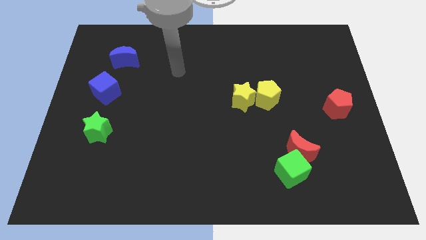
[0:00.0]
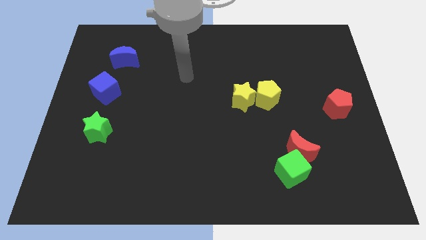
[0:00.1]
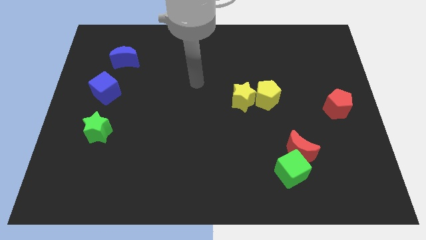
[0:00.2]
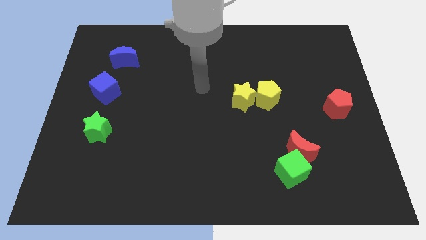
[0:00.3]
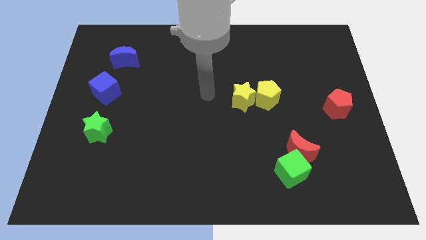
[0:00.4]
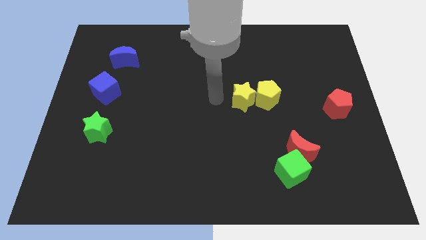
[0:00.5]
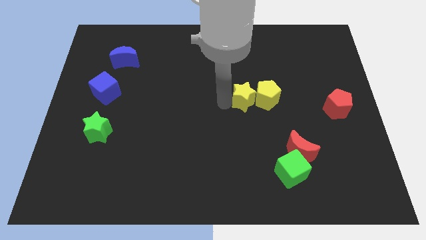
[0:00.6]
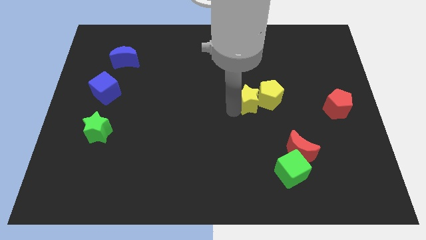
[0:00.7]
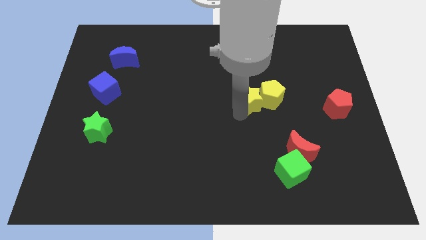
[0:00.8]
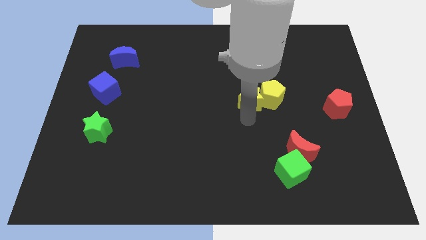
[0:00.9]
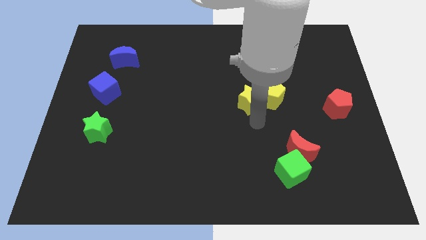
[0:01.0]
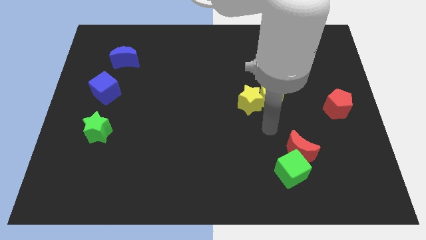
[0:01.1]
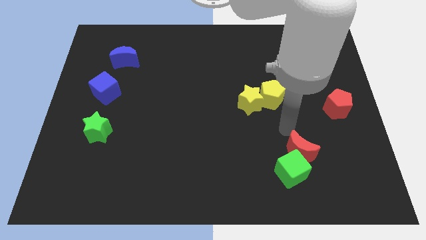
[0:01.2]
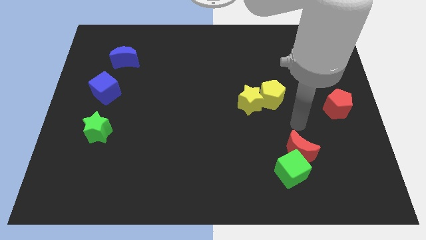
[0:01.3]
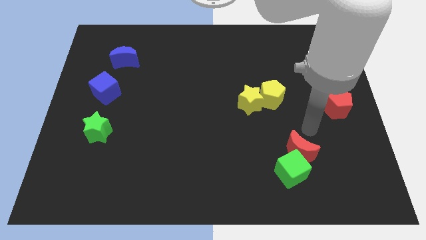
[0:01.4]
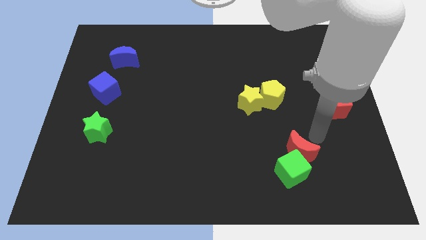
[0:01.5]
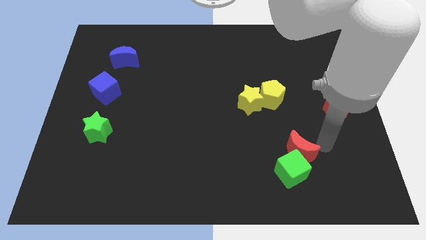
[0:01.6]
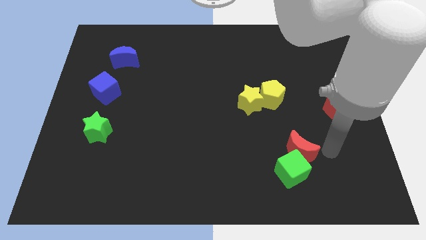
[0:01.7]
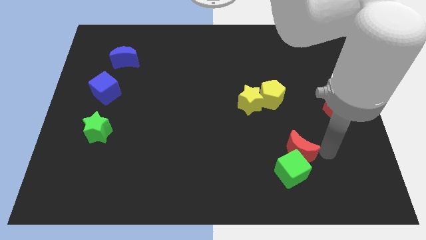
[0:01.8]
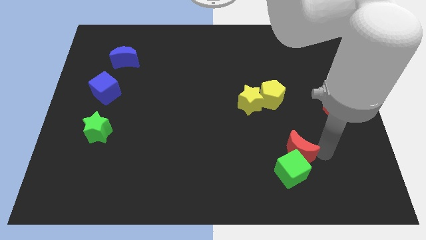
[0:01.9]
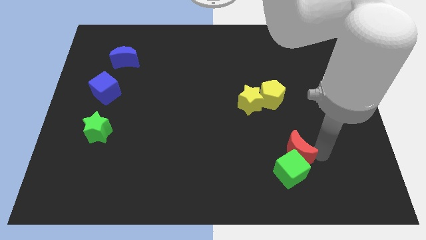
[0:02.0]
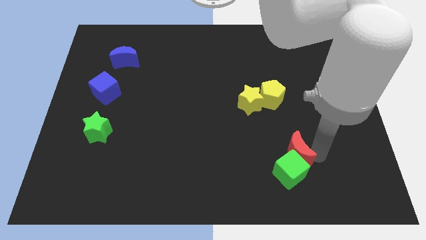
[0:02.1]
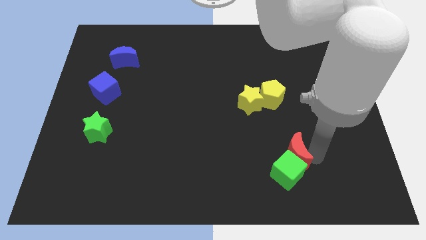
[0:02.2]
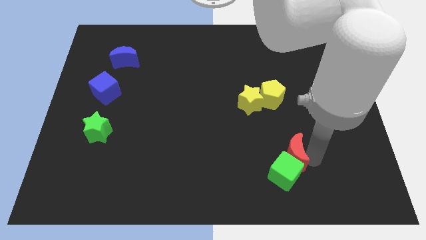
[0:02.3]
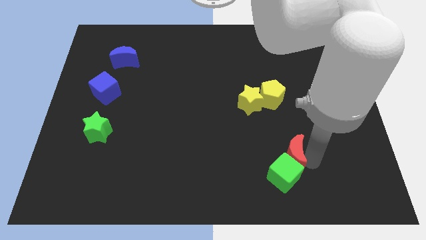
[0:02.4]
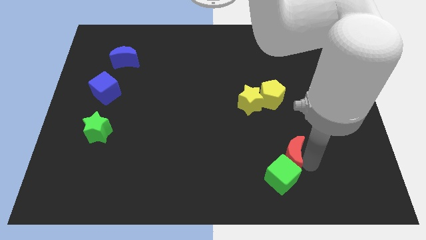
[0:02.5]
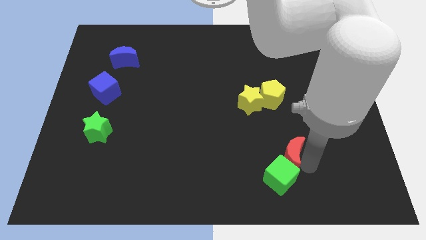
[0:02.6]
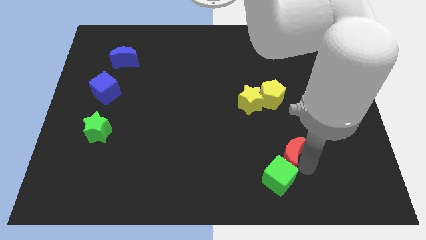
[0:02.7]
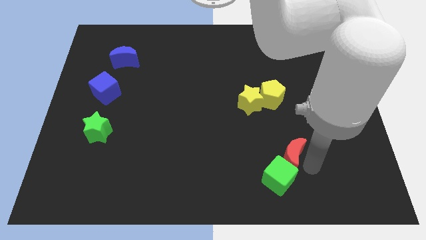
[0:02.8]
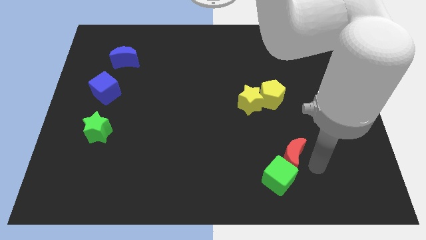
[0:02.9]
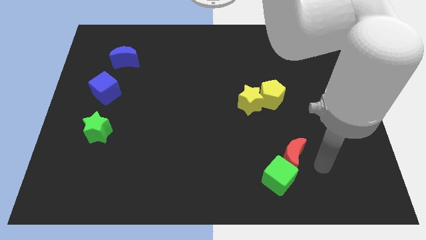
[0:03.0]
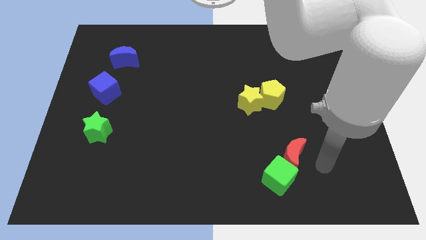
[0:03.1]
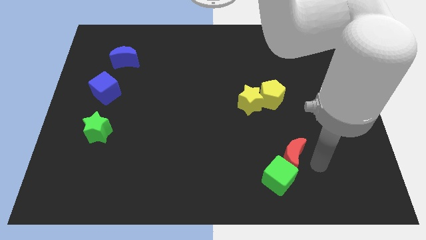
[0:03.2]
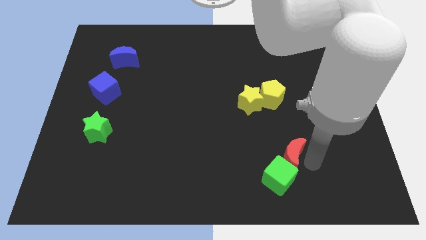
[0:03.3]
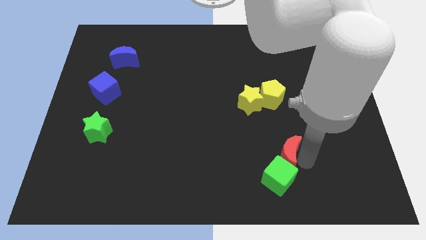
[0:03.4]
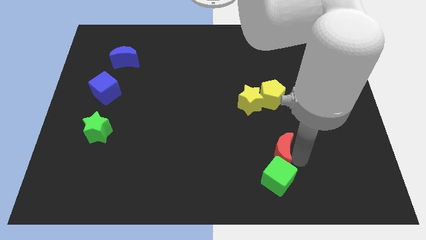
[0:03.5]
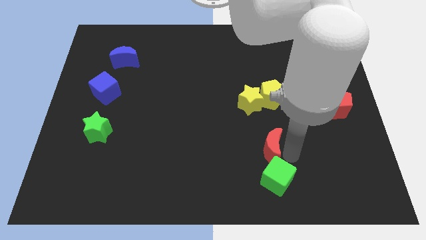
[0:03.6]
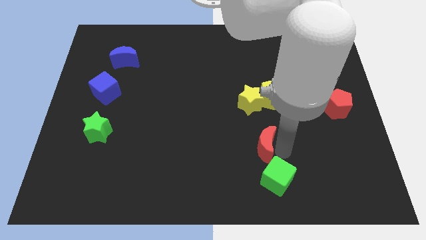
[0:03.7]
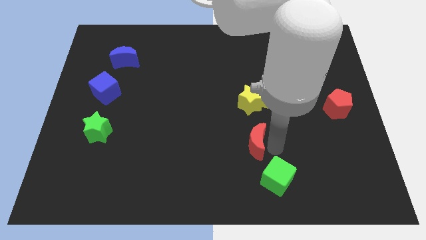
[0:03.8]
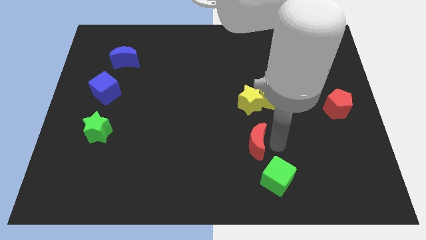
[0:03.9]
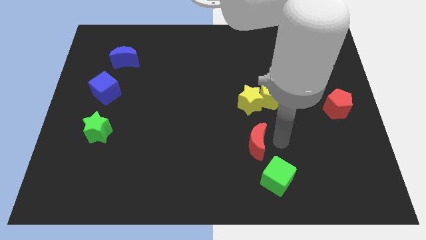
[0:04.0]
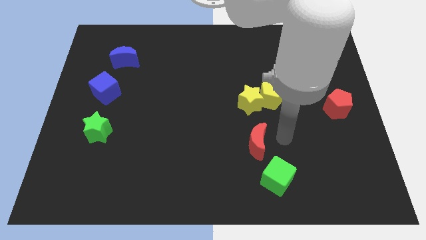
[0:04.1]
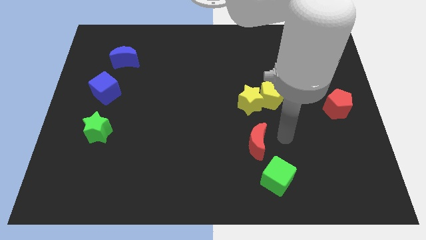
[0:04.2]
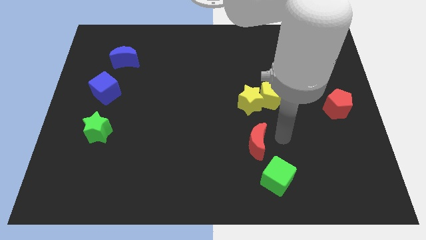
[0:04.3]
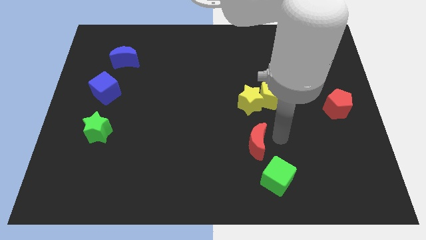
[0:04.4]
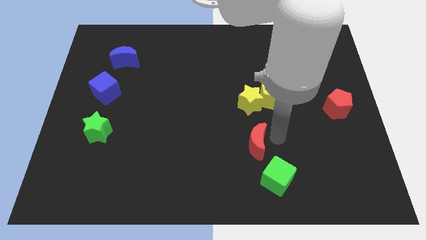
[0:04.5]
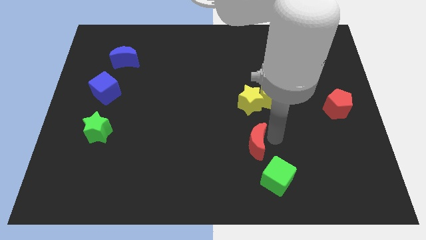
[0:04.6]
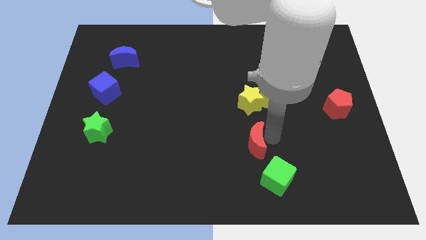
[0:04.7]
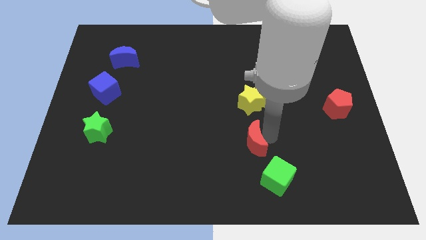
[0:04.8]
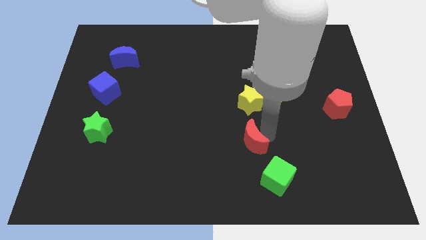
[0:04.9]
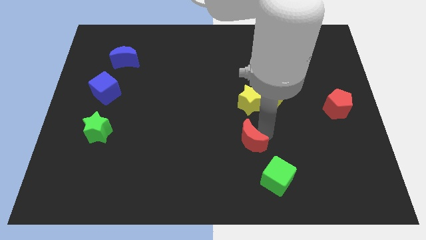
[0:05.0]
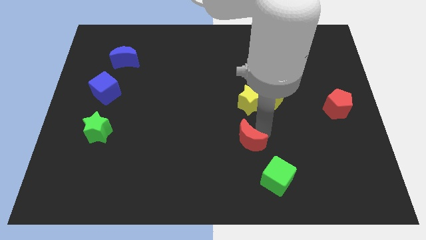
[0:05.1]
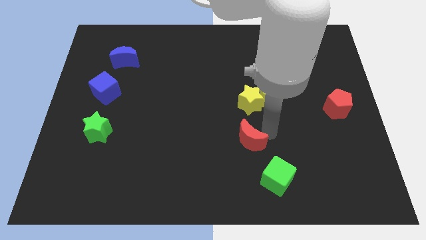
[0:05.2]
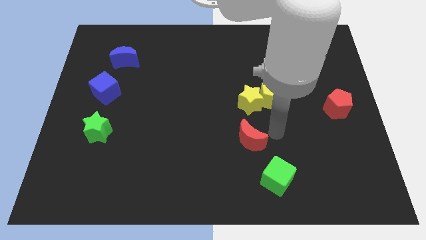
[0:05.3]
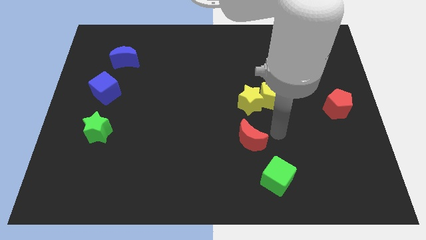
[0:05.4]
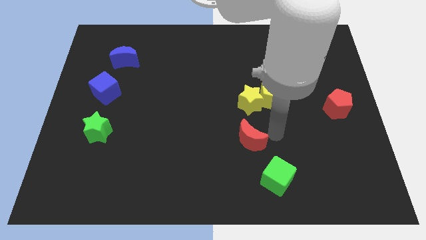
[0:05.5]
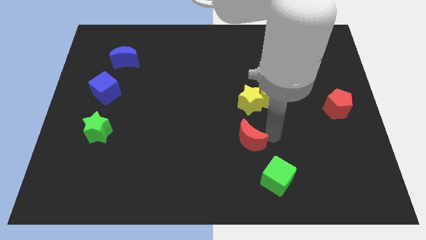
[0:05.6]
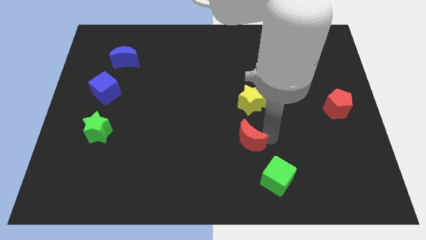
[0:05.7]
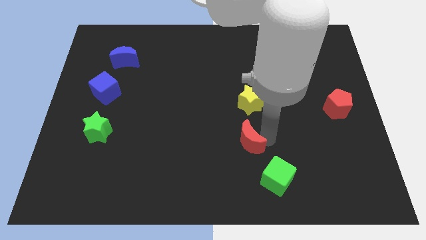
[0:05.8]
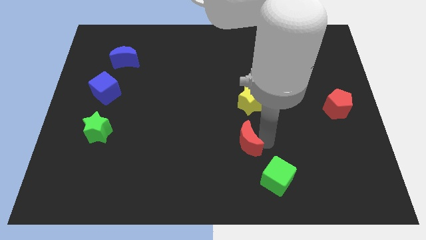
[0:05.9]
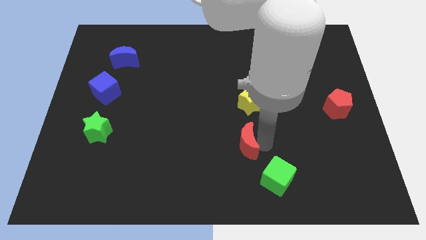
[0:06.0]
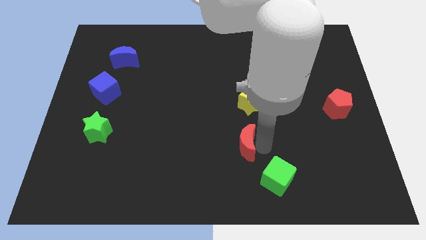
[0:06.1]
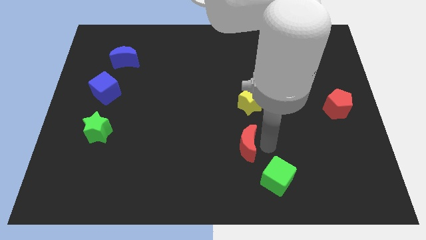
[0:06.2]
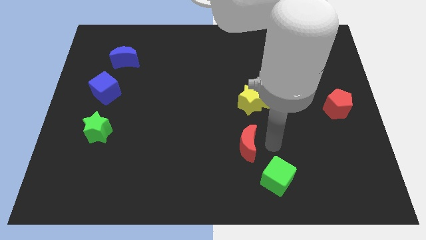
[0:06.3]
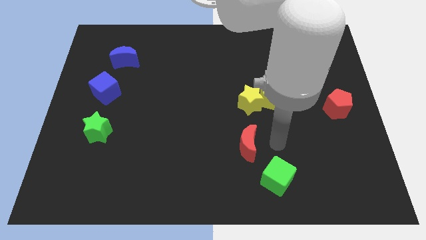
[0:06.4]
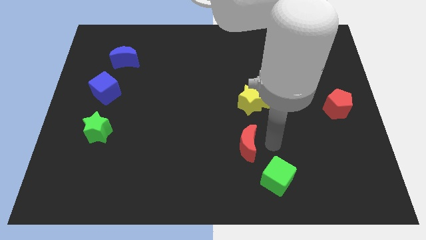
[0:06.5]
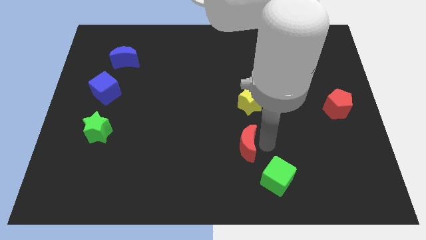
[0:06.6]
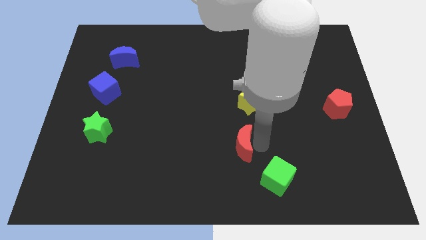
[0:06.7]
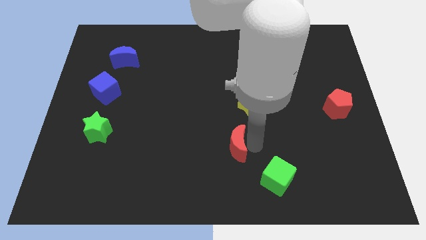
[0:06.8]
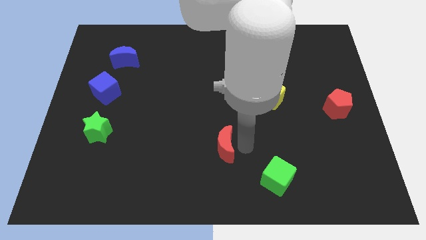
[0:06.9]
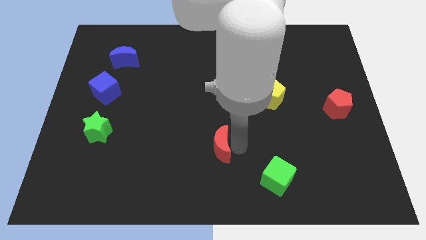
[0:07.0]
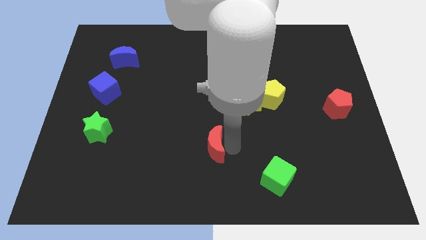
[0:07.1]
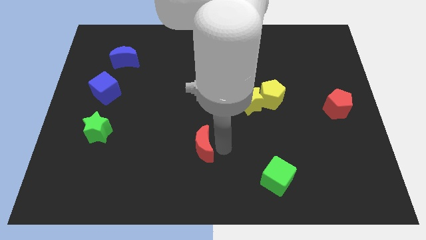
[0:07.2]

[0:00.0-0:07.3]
move the red moon left

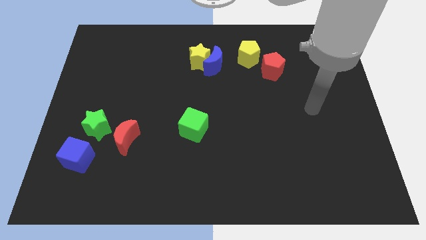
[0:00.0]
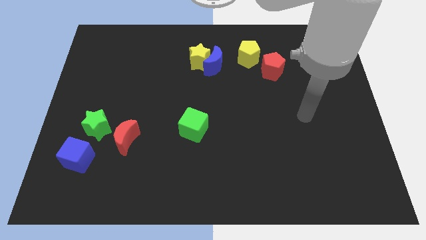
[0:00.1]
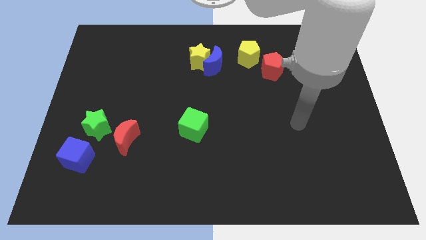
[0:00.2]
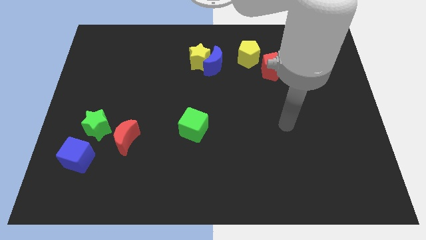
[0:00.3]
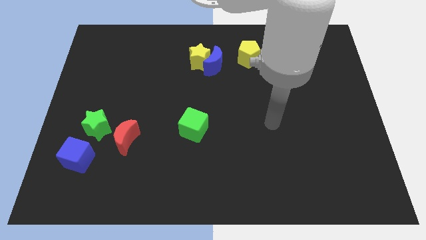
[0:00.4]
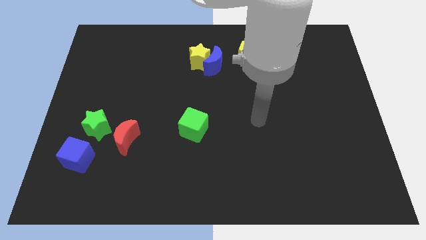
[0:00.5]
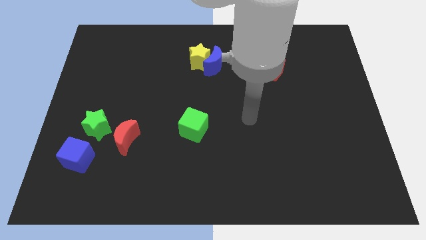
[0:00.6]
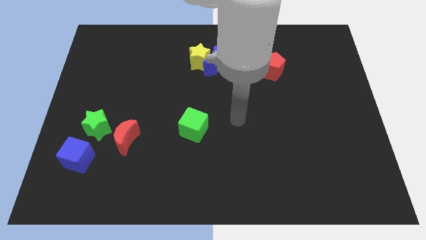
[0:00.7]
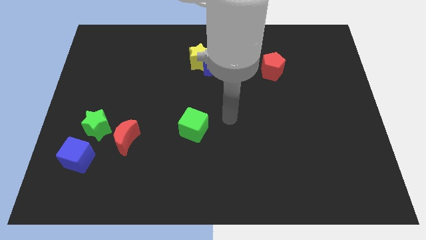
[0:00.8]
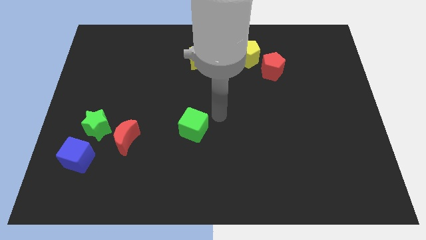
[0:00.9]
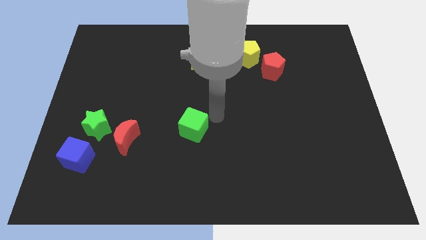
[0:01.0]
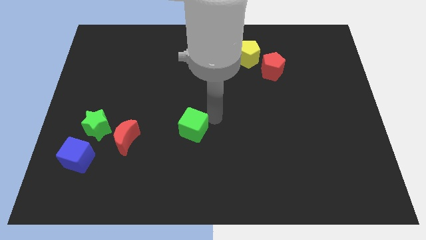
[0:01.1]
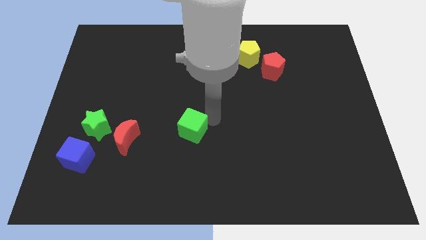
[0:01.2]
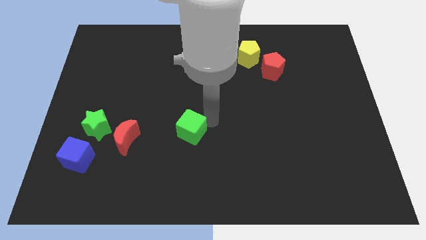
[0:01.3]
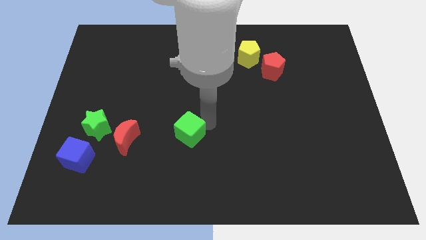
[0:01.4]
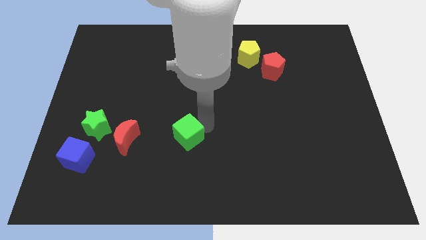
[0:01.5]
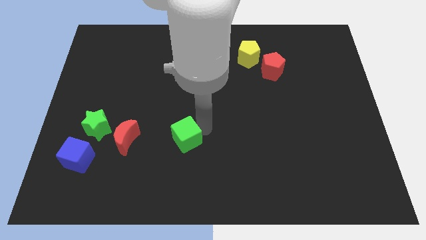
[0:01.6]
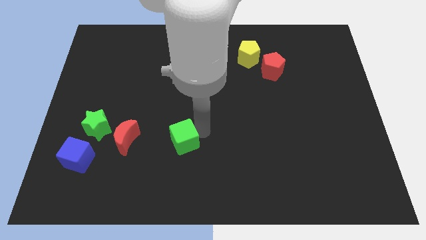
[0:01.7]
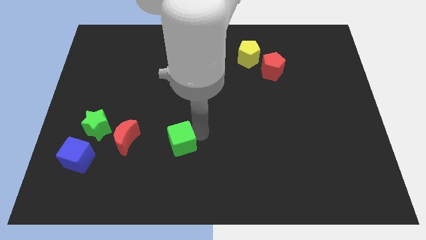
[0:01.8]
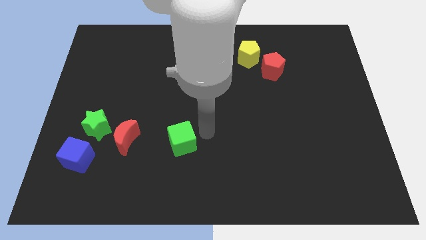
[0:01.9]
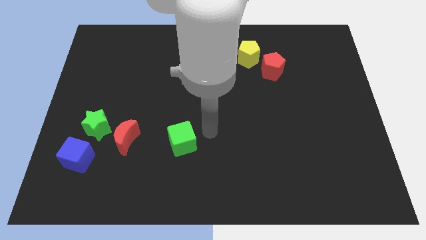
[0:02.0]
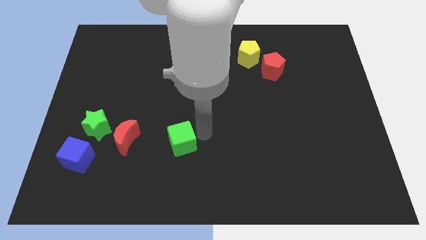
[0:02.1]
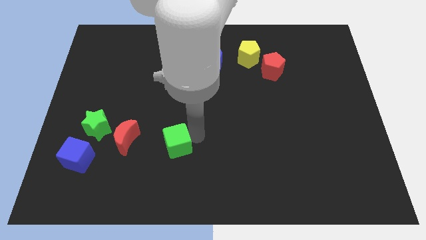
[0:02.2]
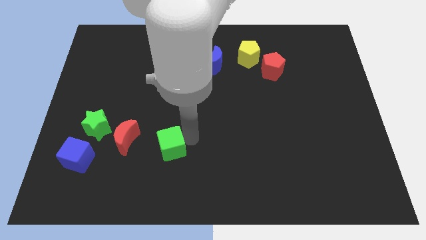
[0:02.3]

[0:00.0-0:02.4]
move the green cube slightly down and left diagonally
